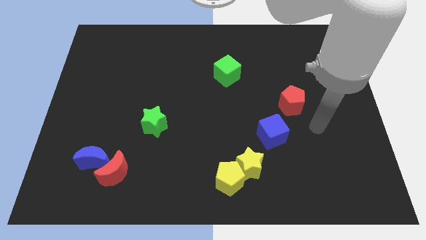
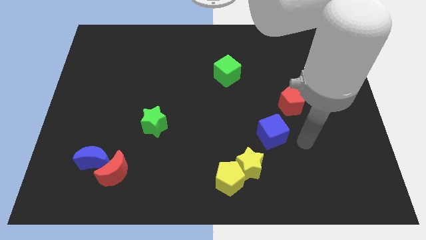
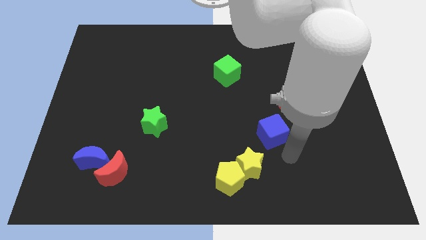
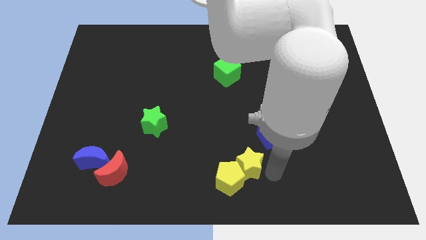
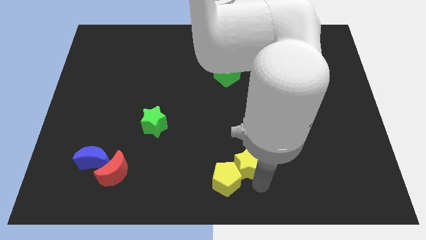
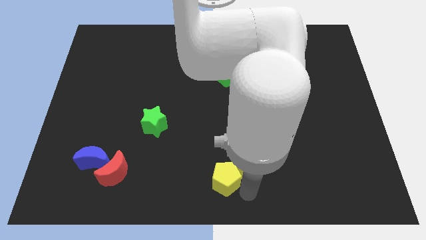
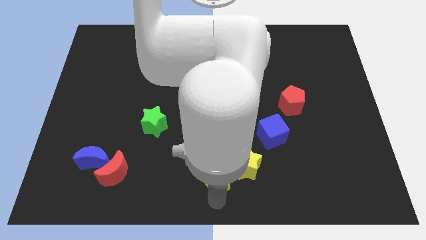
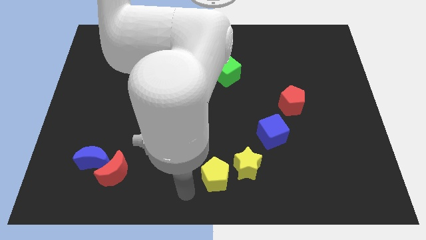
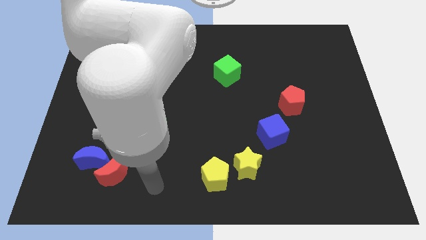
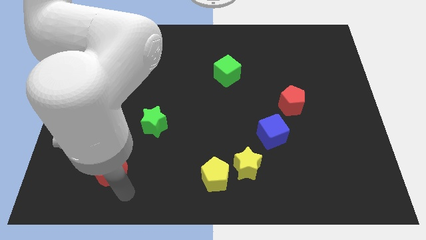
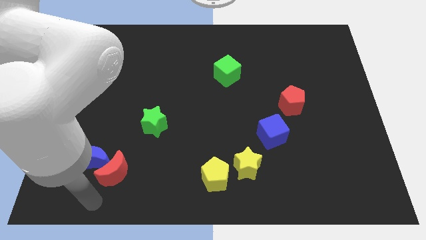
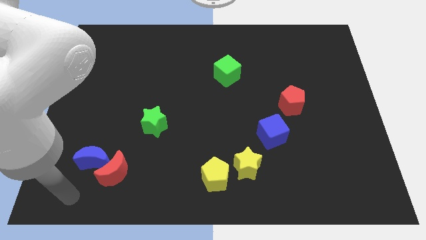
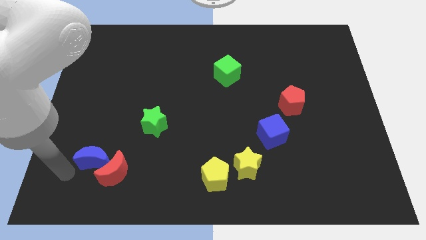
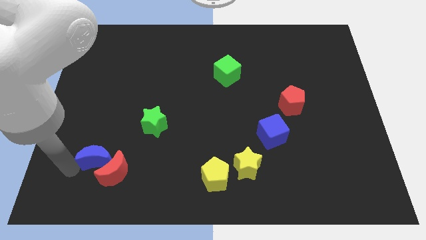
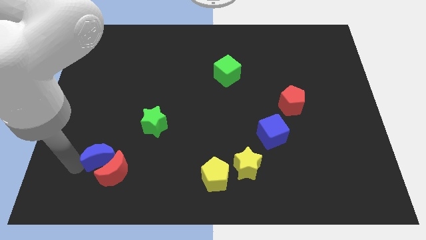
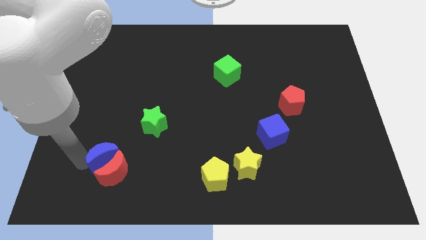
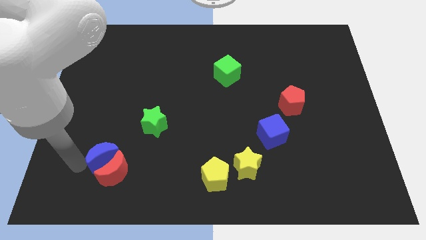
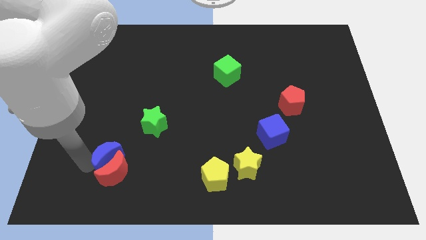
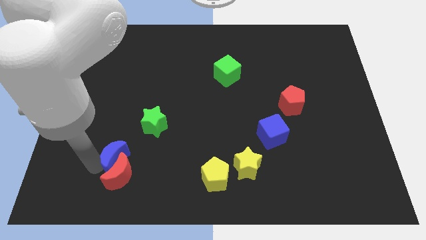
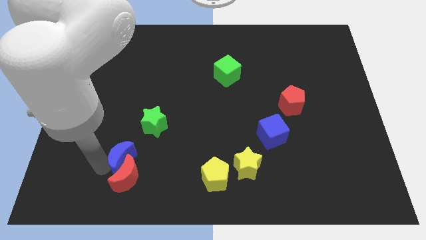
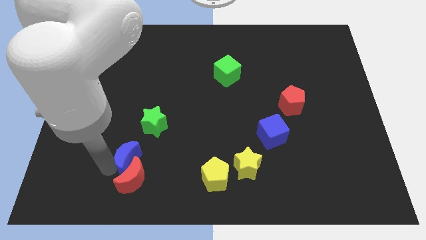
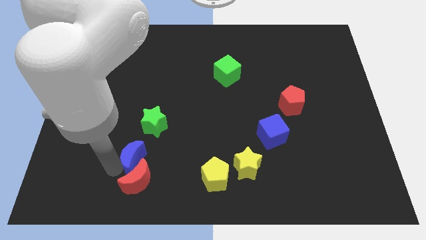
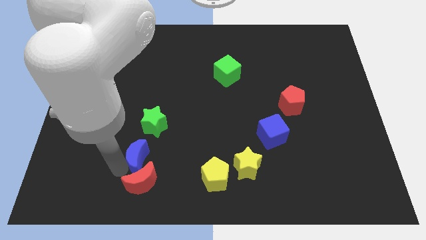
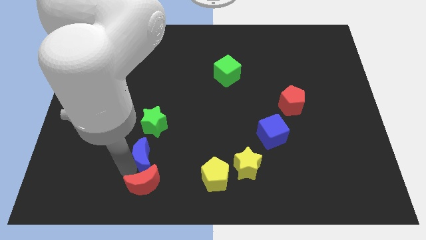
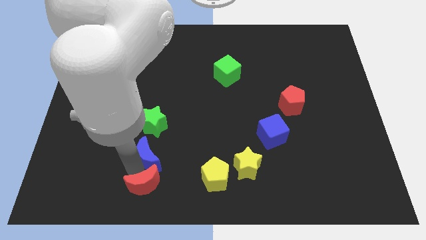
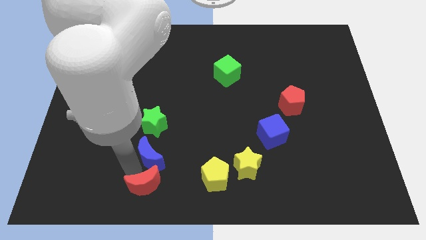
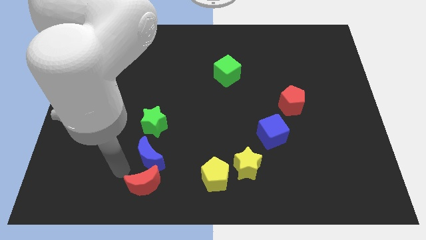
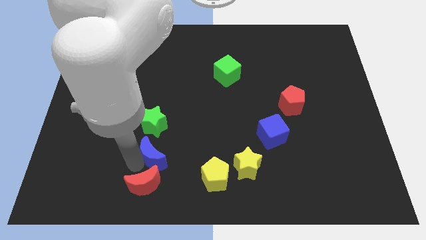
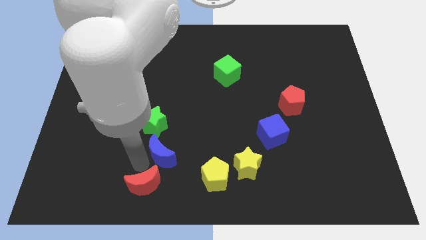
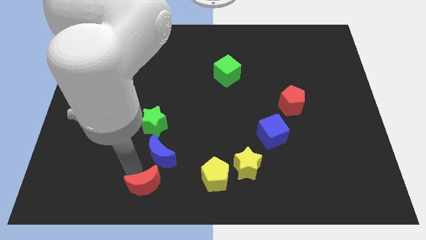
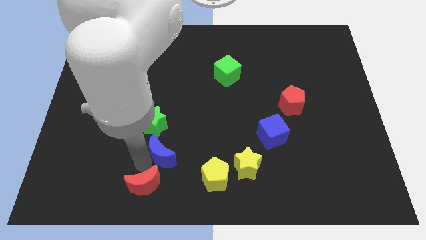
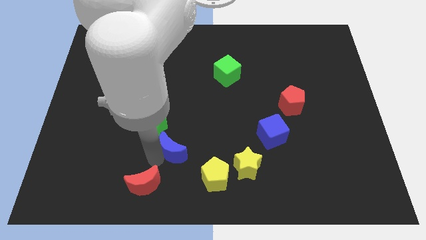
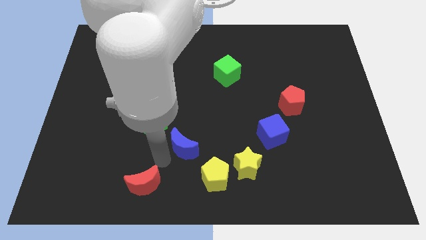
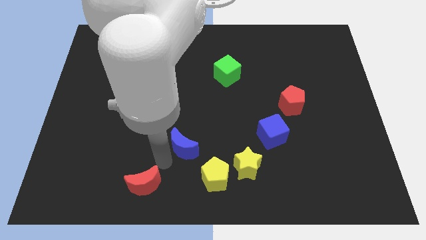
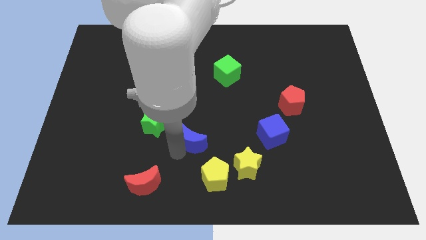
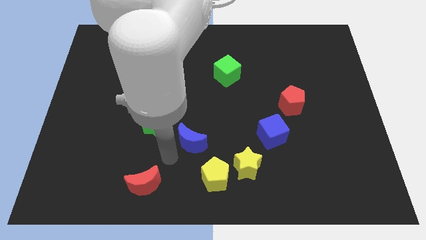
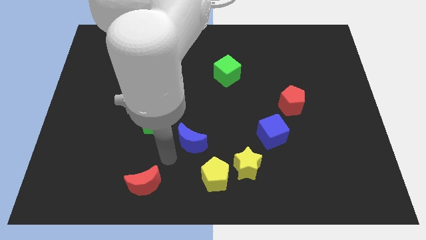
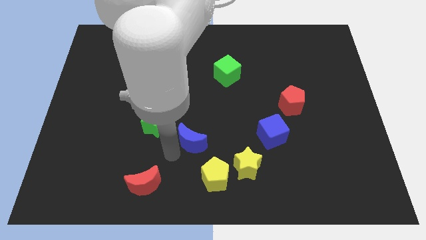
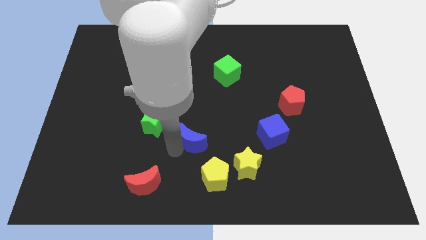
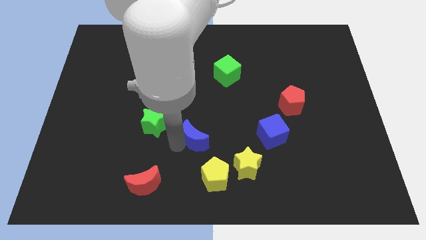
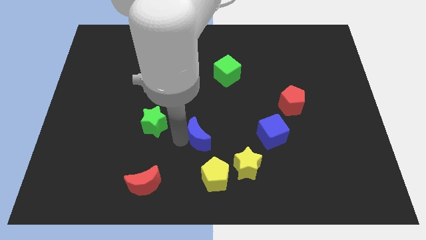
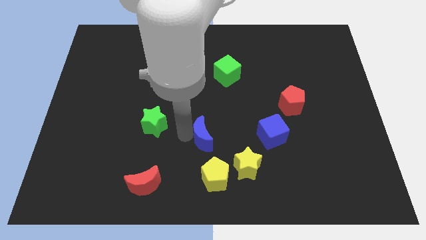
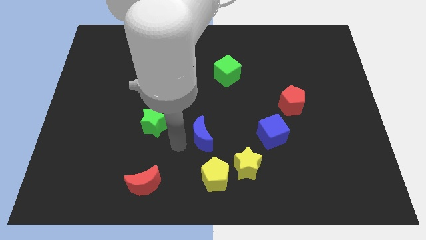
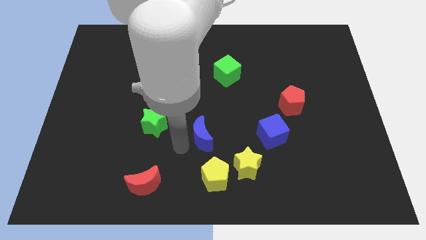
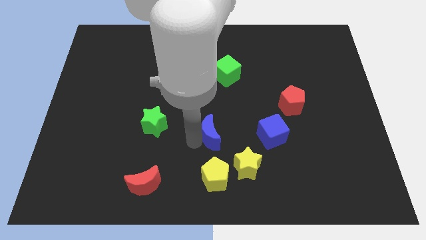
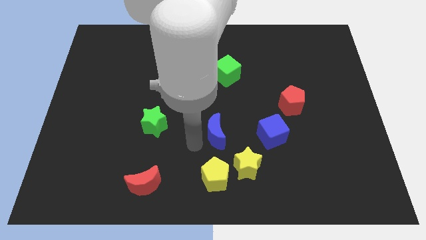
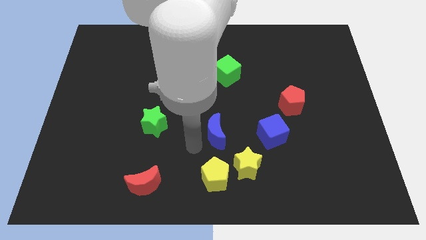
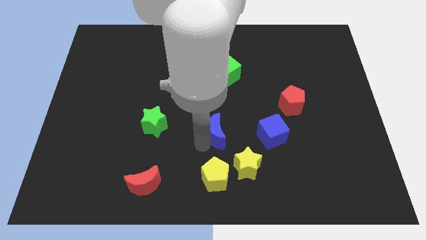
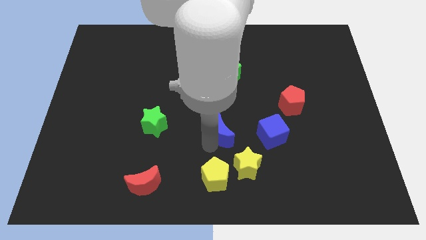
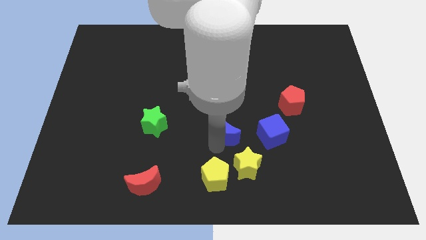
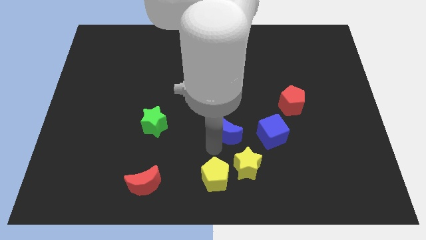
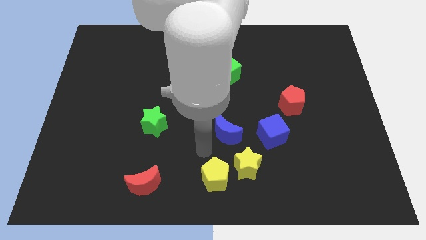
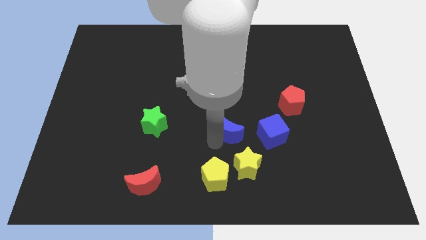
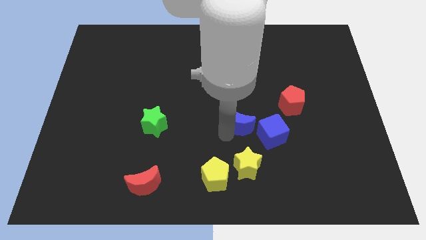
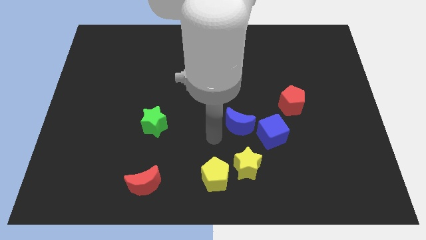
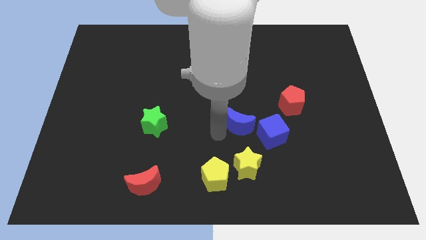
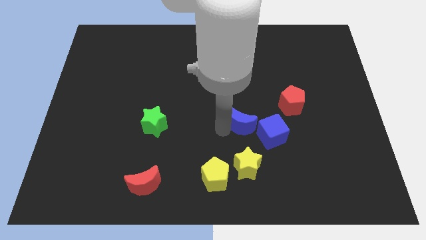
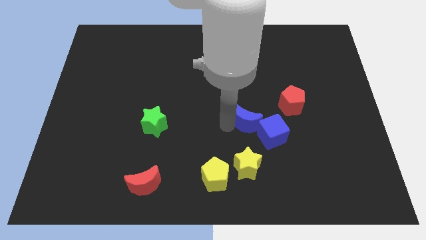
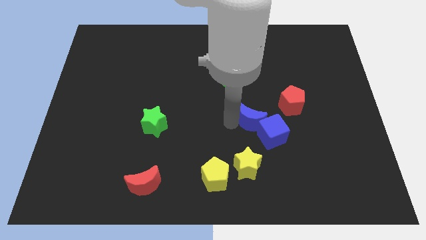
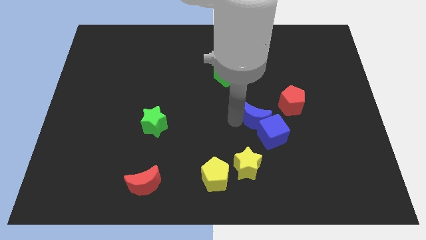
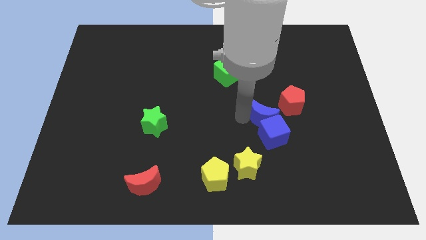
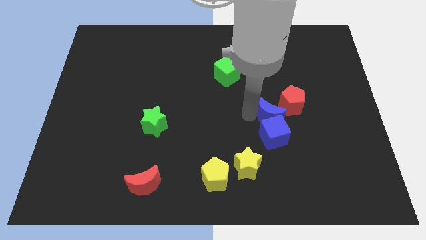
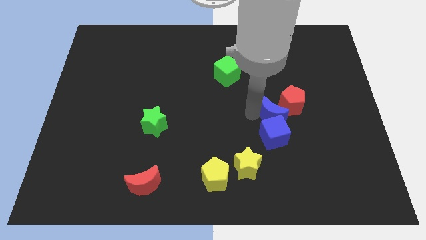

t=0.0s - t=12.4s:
move the blue moon to the red pentagon
